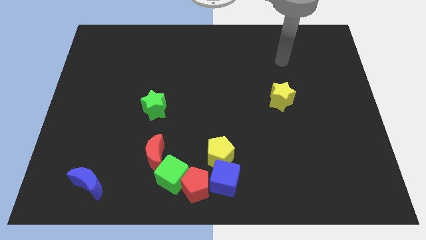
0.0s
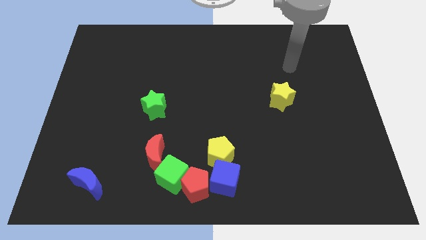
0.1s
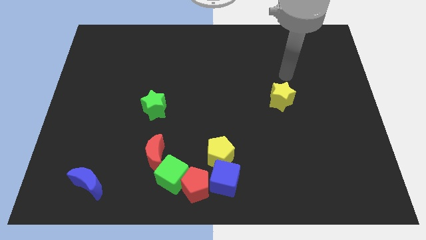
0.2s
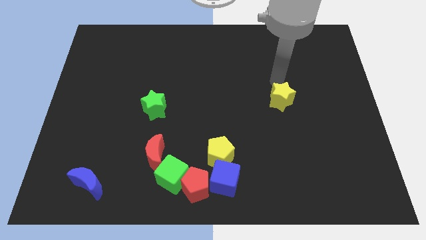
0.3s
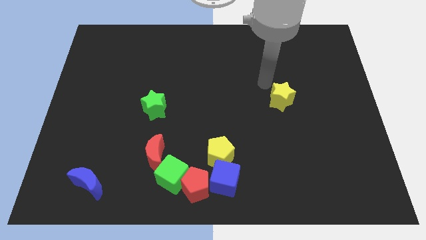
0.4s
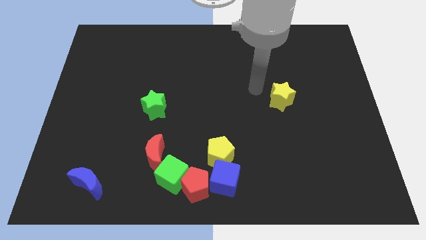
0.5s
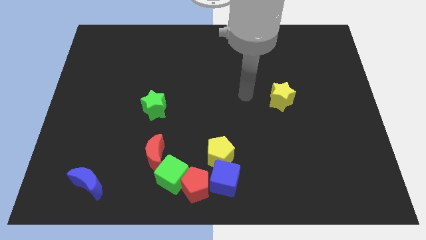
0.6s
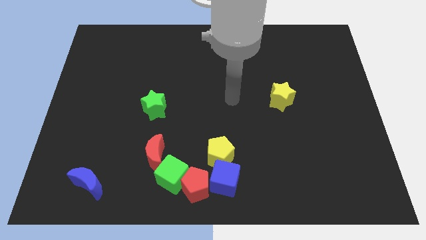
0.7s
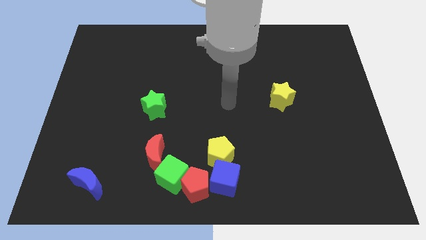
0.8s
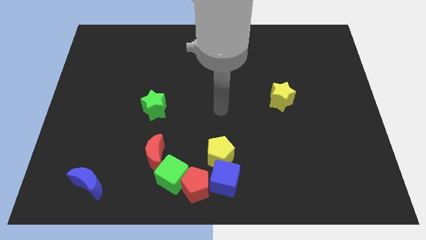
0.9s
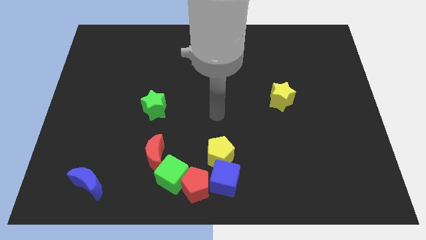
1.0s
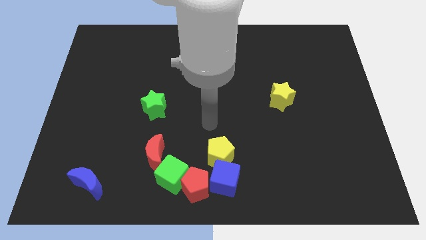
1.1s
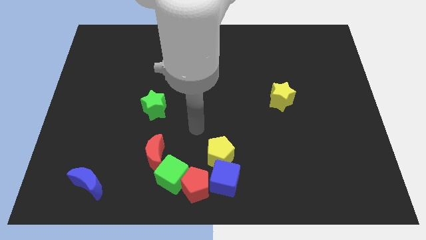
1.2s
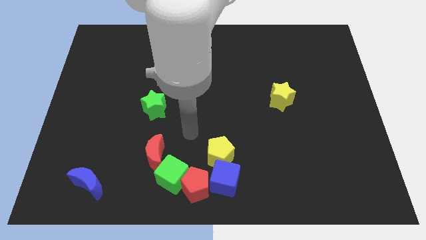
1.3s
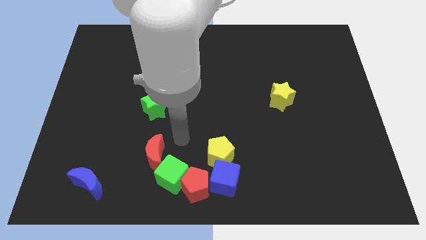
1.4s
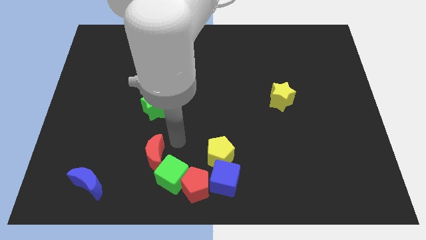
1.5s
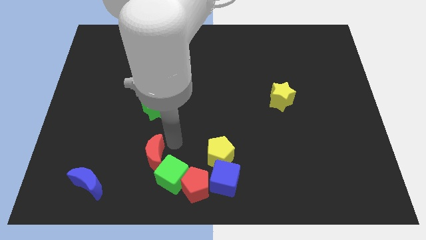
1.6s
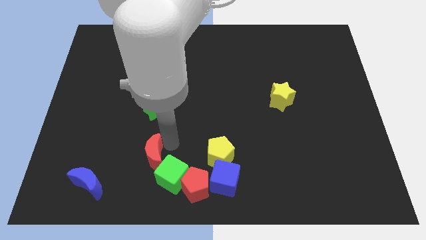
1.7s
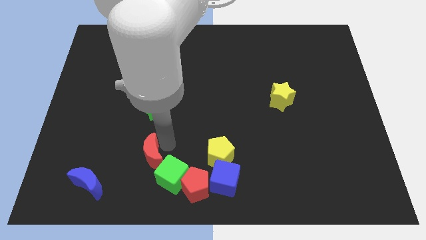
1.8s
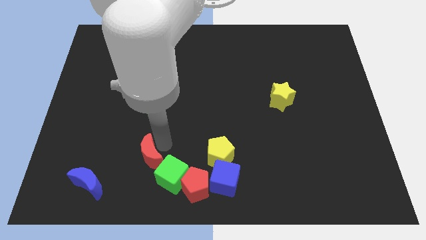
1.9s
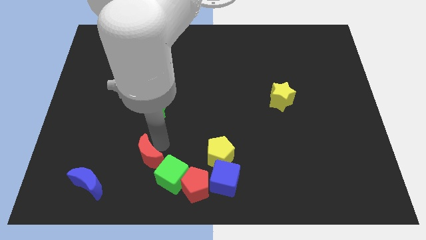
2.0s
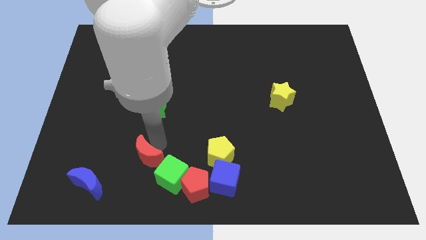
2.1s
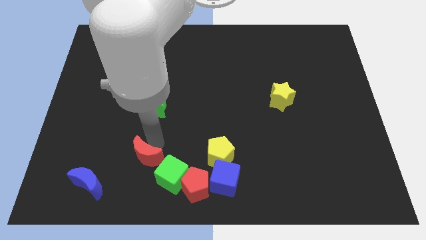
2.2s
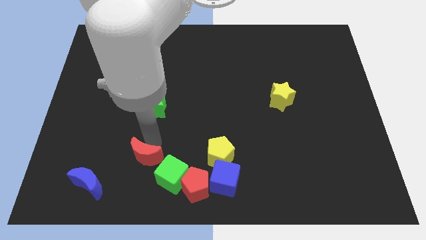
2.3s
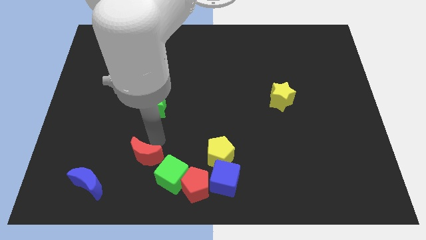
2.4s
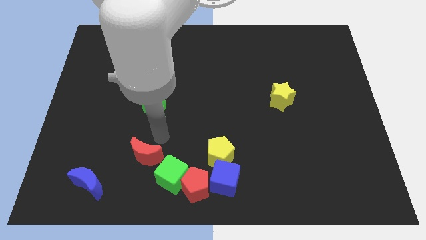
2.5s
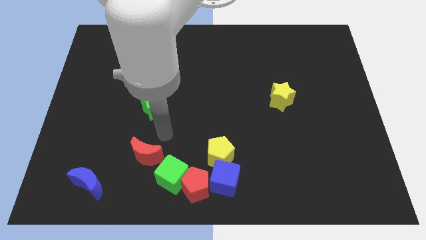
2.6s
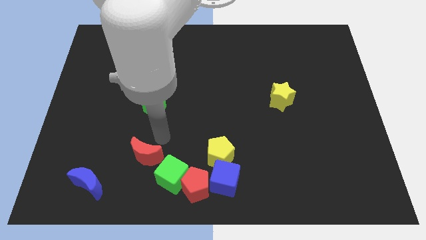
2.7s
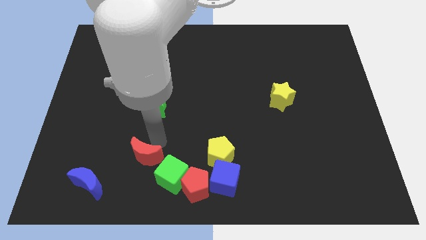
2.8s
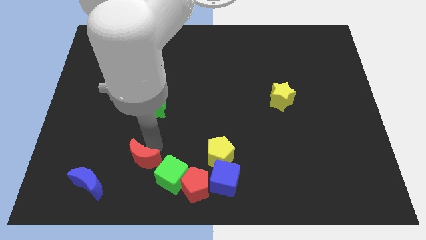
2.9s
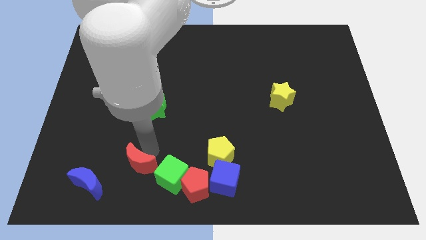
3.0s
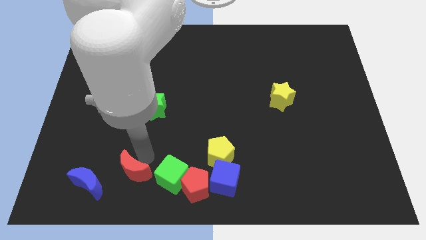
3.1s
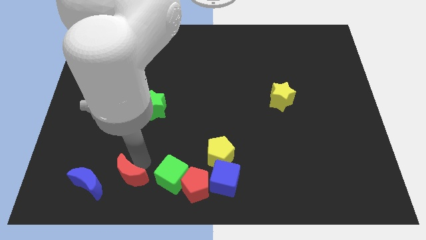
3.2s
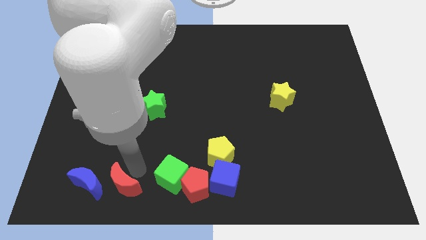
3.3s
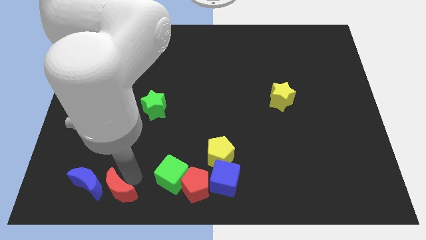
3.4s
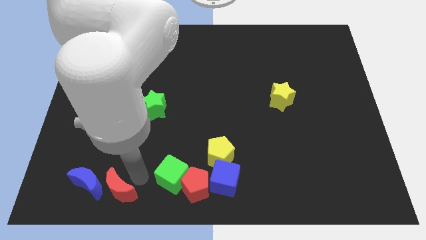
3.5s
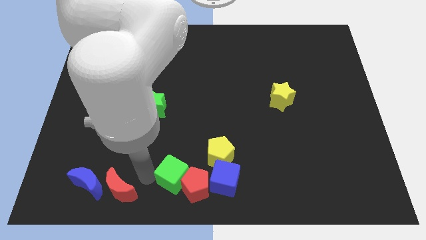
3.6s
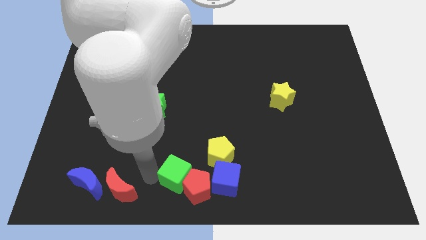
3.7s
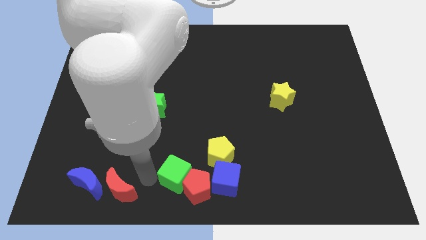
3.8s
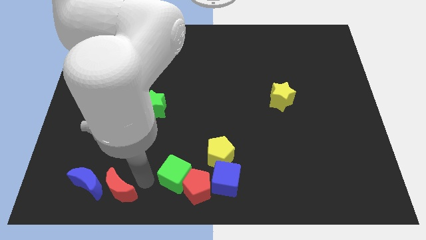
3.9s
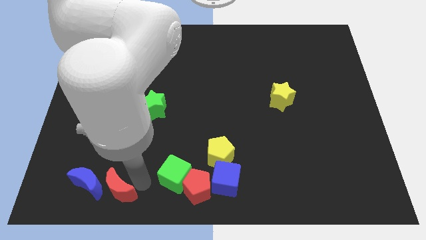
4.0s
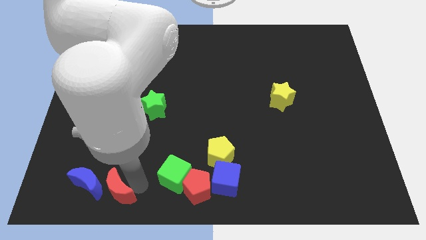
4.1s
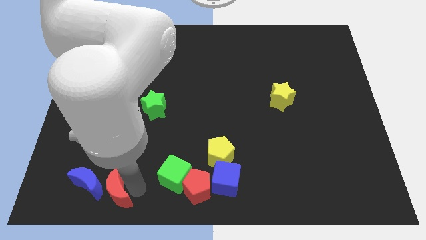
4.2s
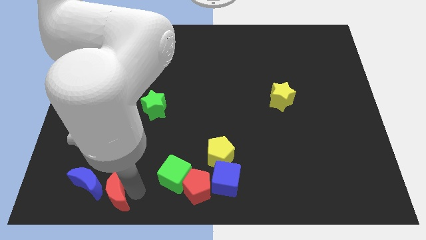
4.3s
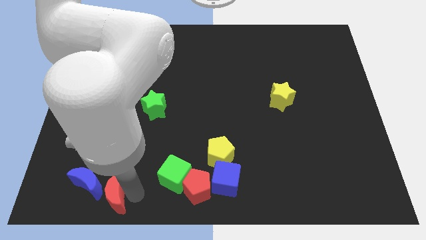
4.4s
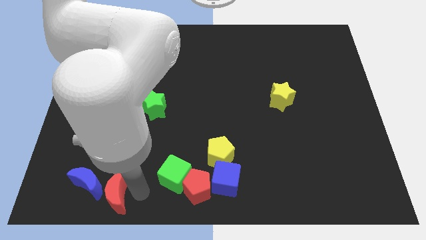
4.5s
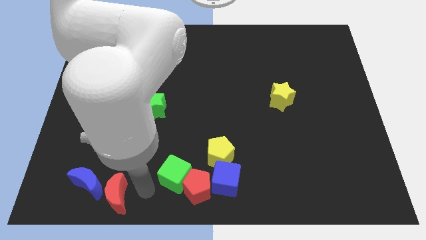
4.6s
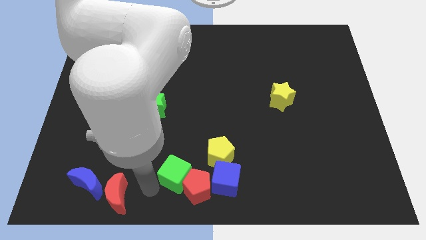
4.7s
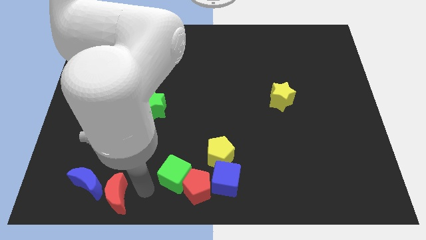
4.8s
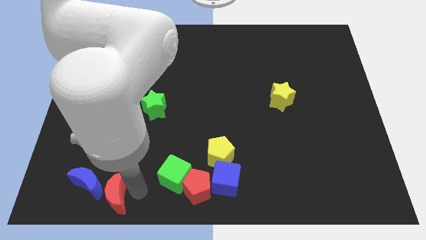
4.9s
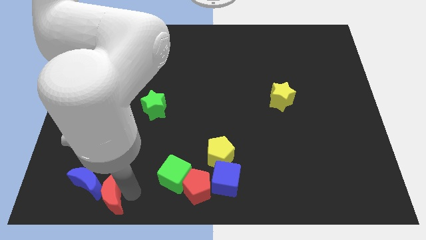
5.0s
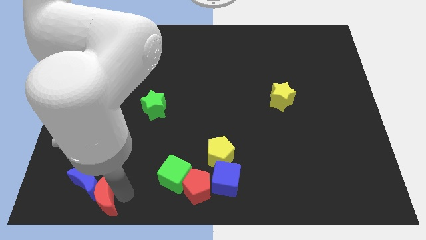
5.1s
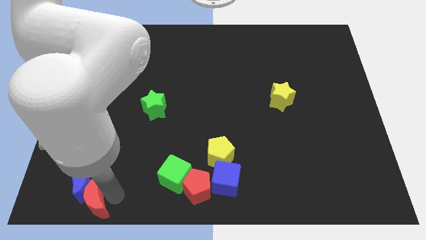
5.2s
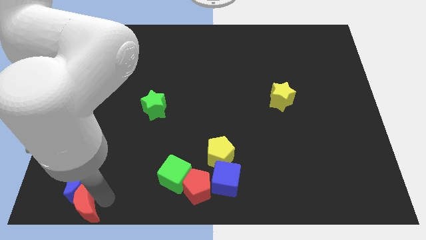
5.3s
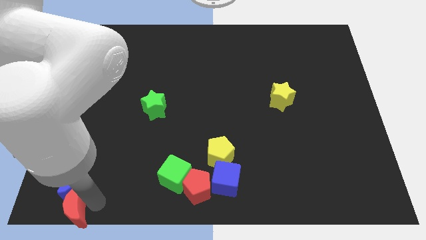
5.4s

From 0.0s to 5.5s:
move the red moon to the bottom left
